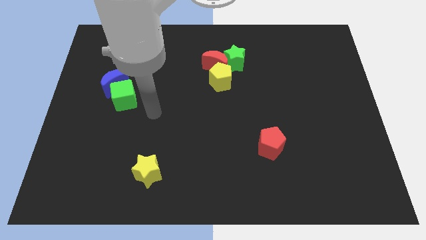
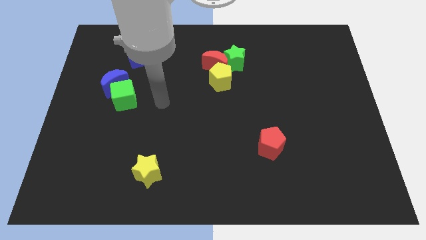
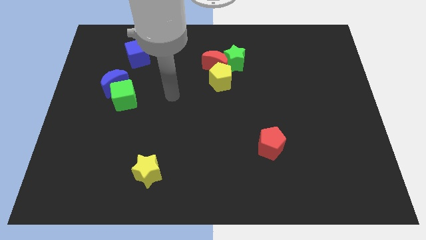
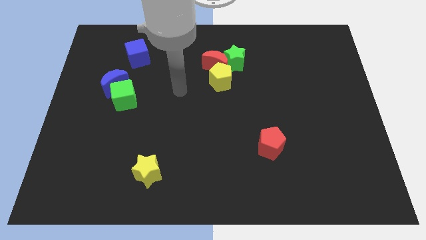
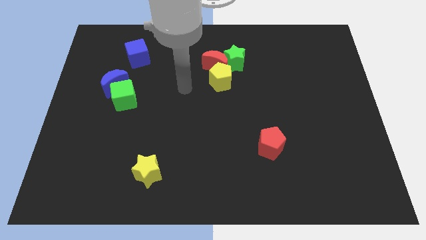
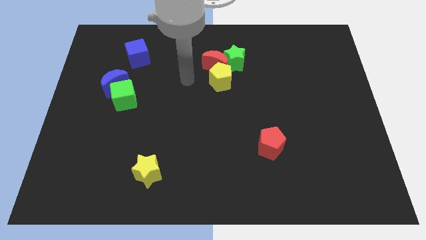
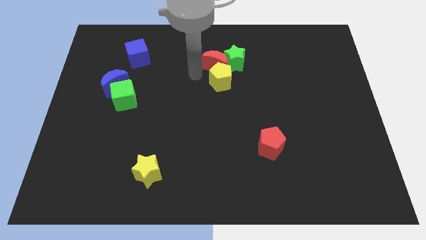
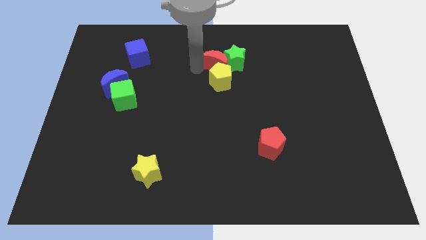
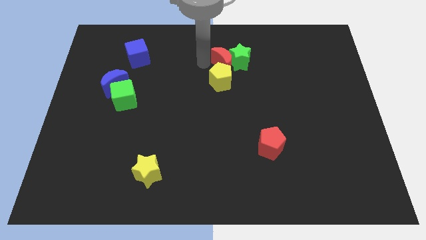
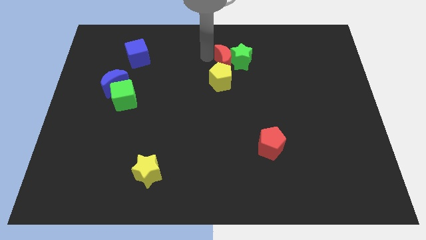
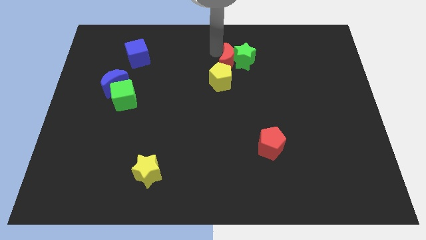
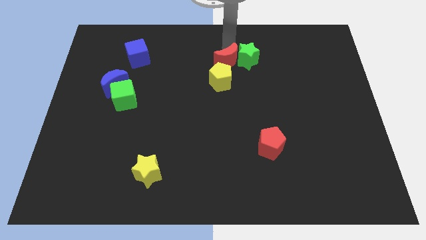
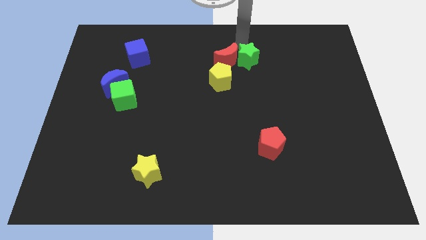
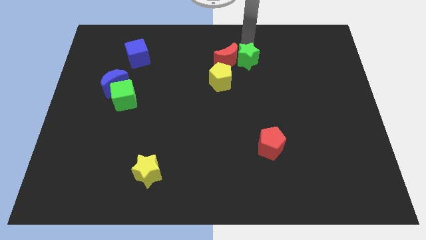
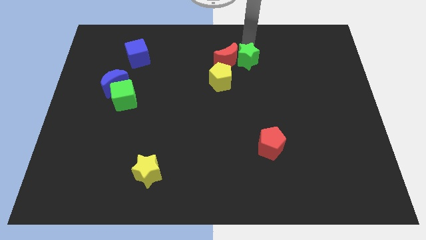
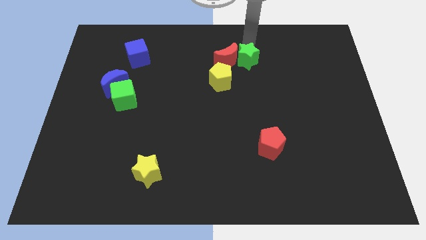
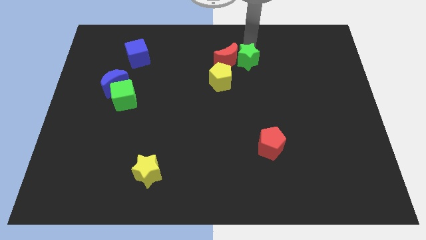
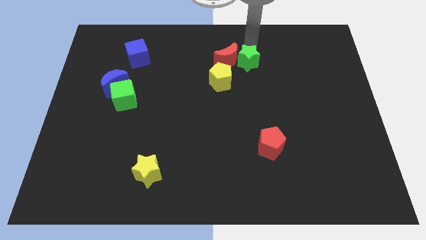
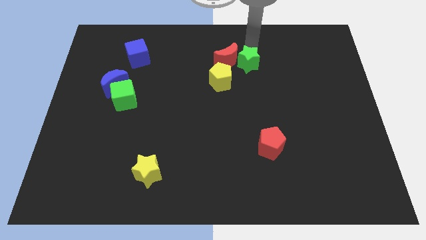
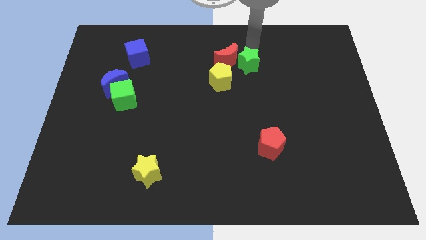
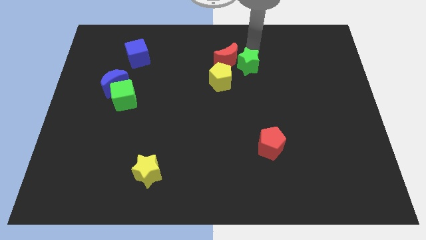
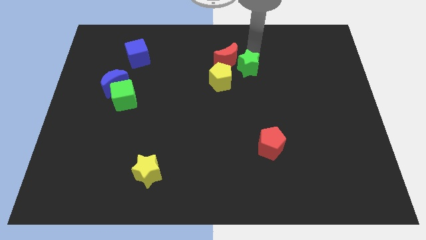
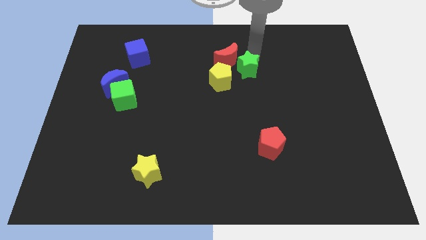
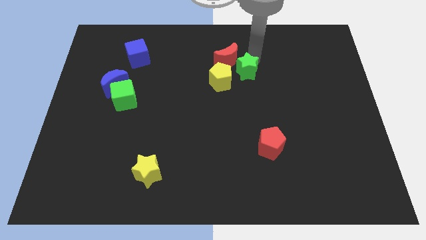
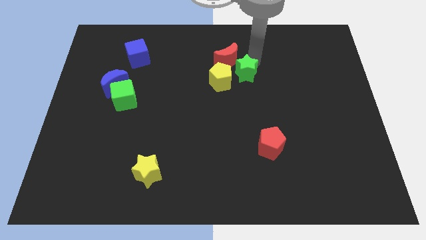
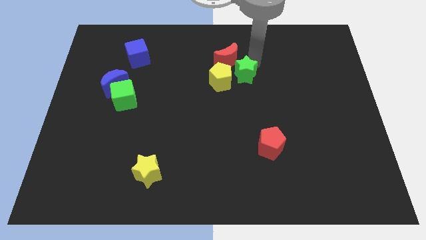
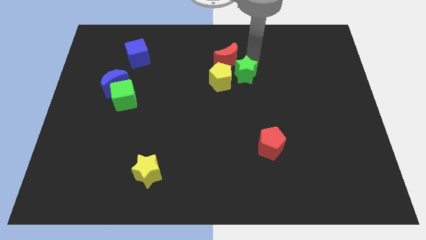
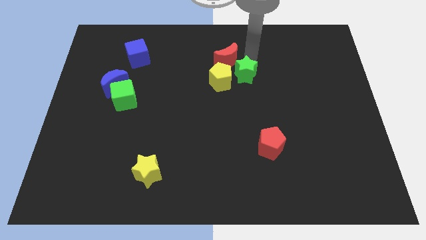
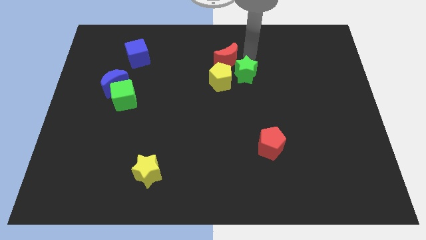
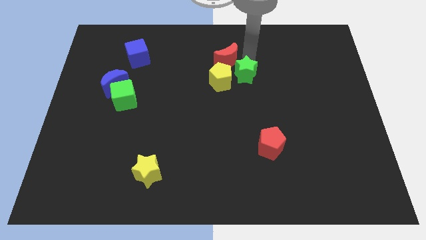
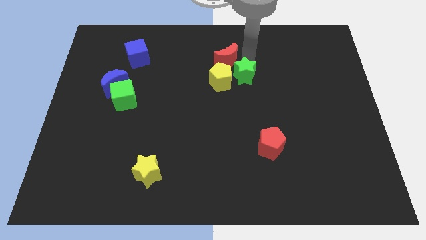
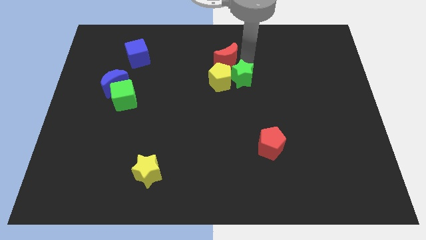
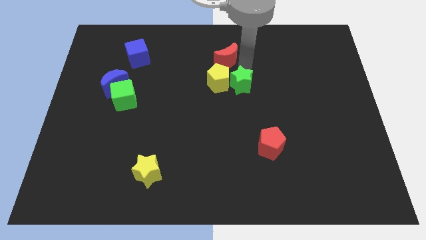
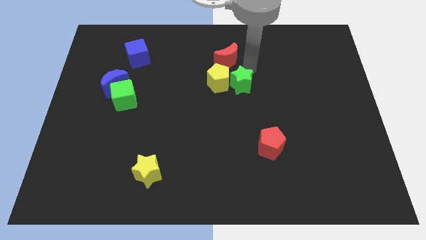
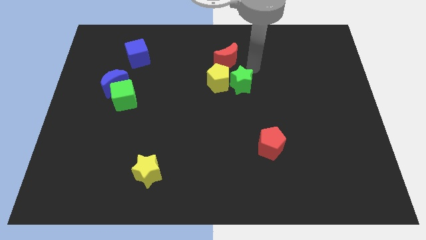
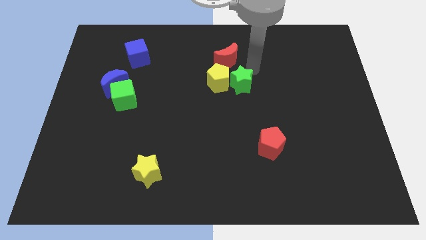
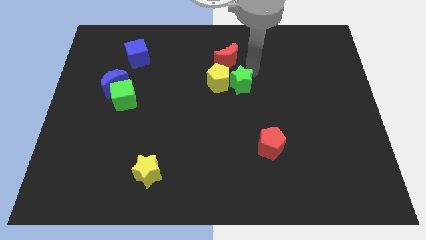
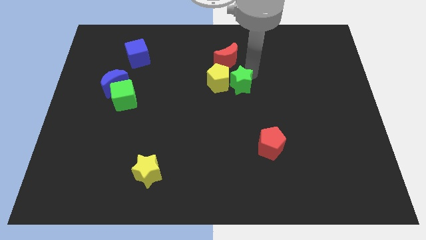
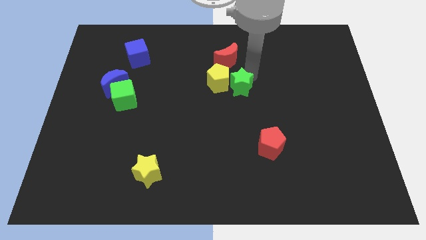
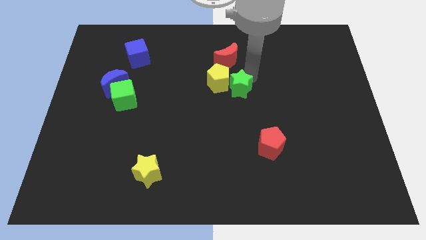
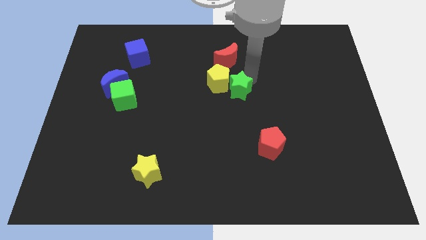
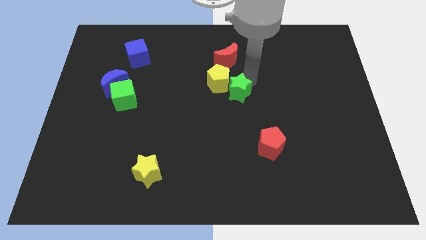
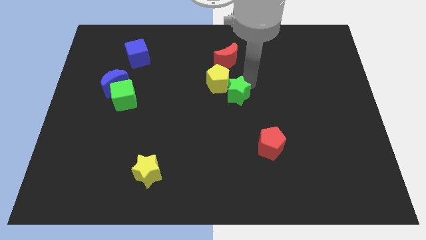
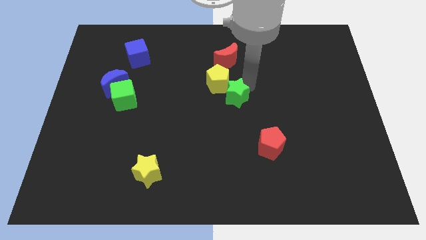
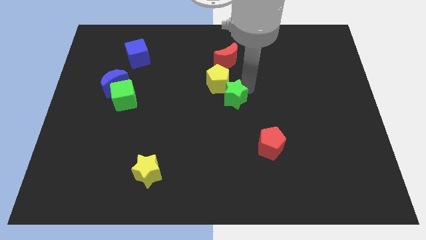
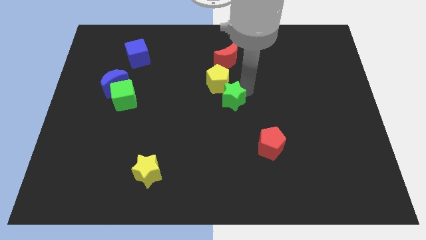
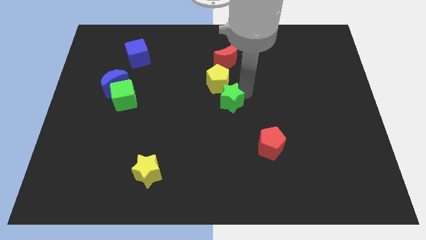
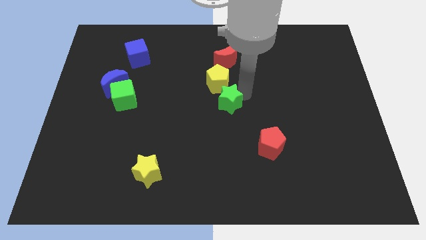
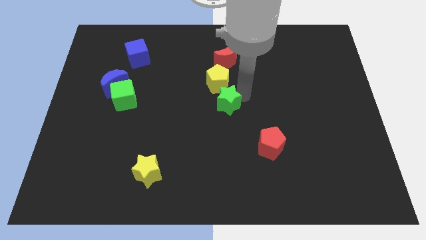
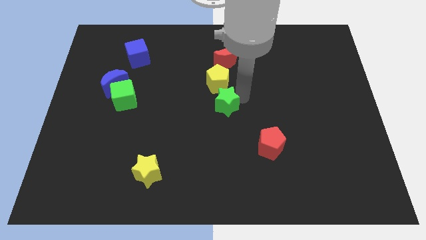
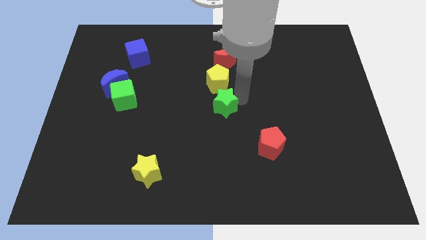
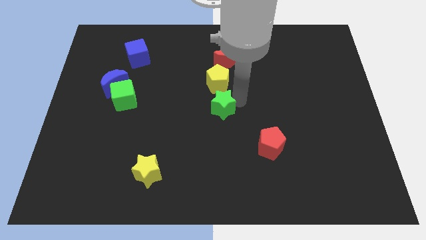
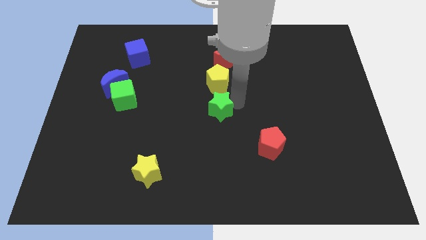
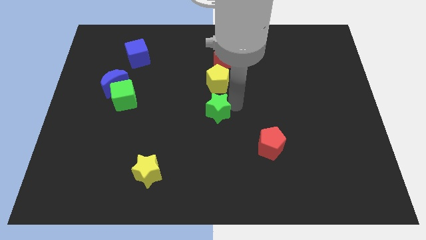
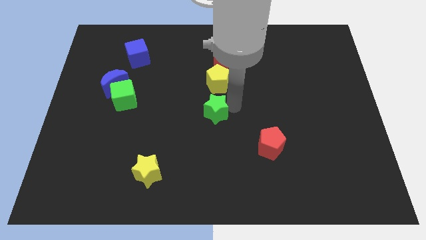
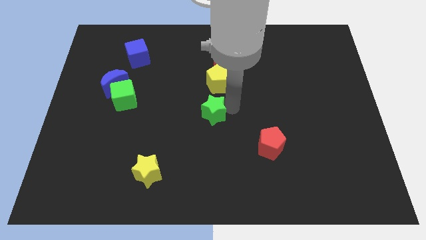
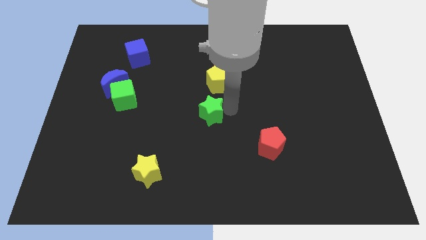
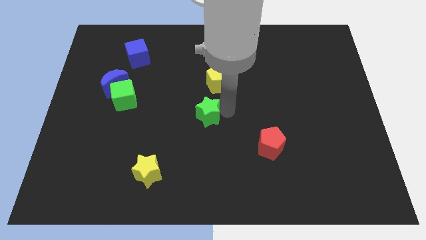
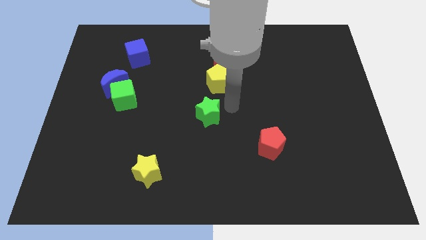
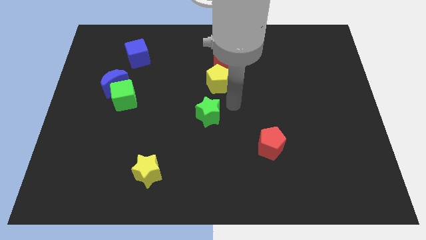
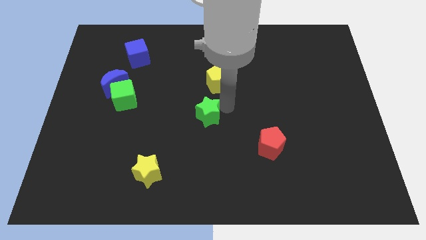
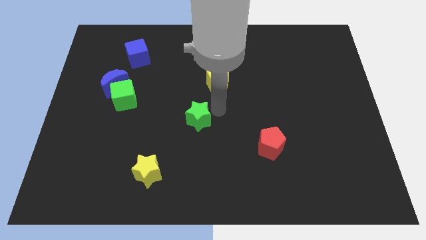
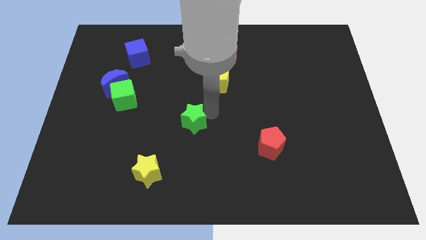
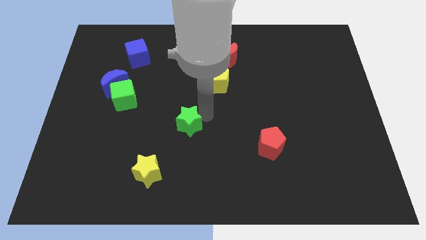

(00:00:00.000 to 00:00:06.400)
push the green star down and left diagonally

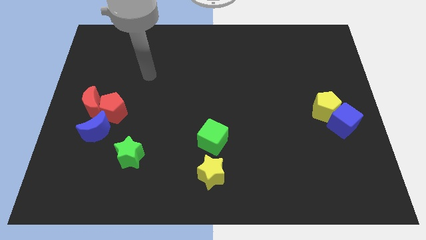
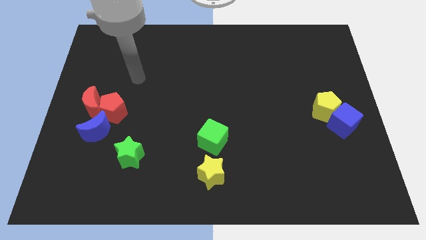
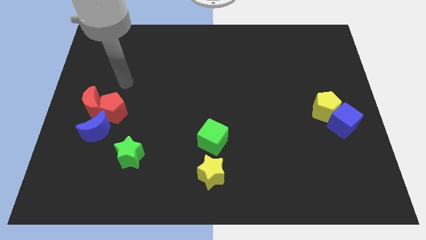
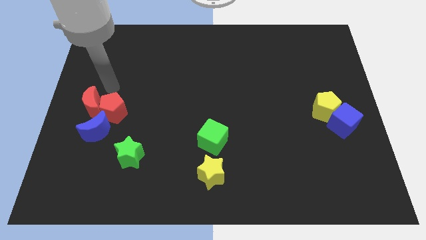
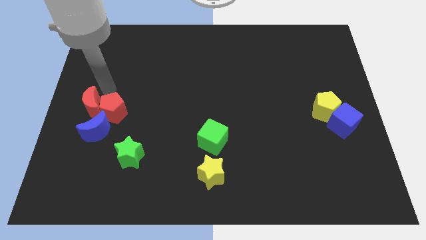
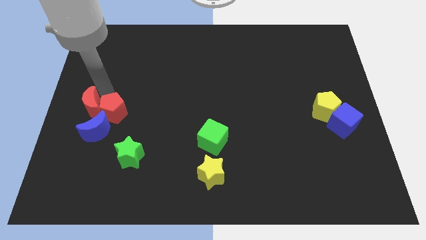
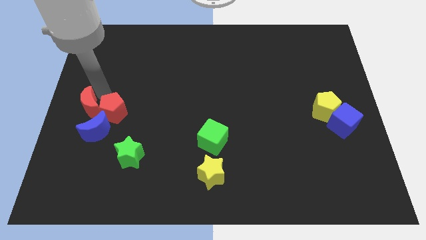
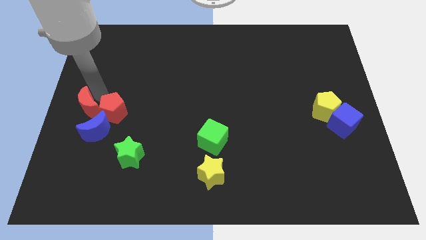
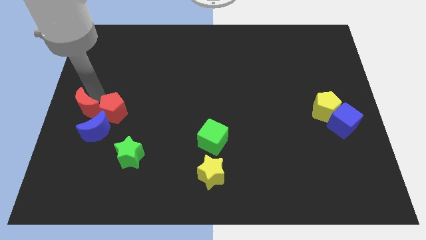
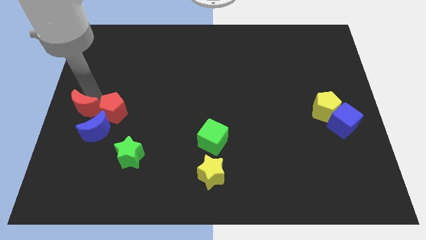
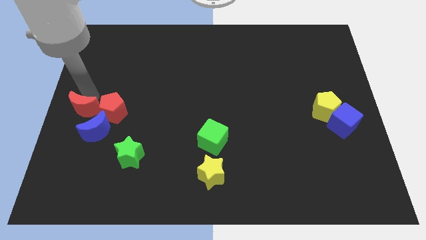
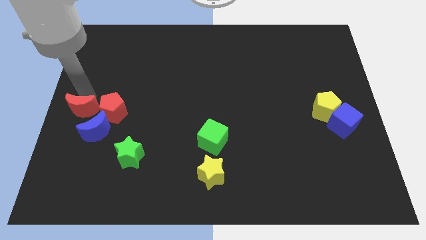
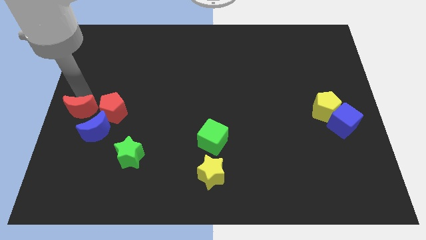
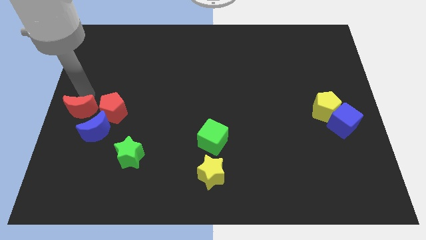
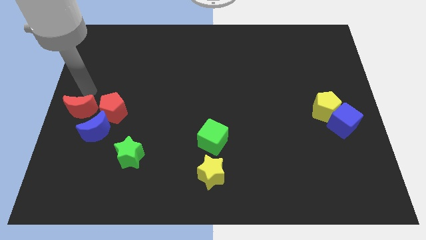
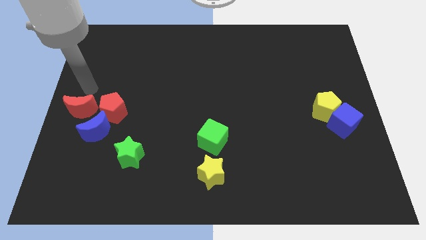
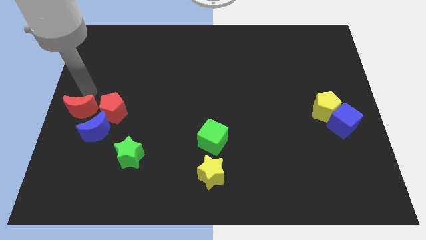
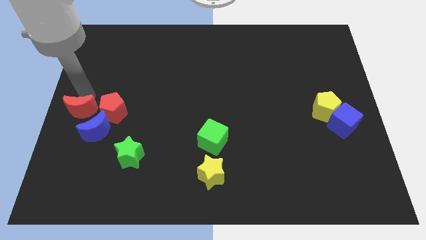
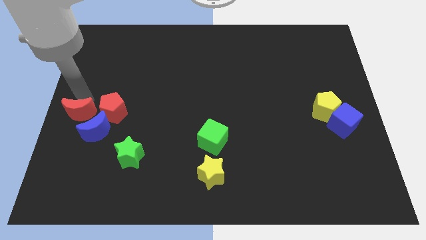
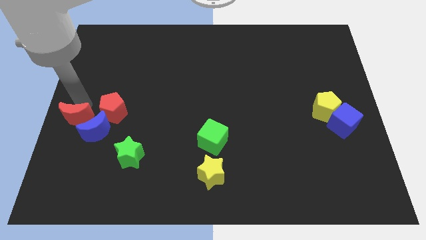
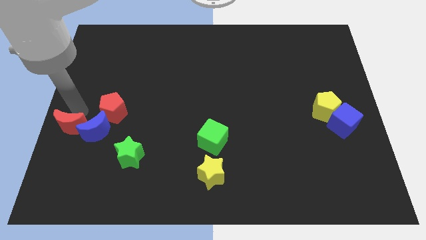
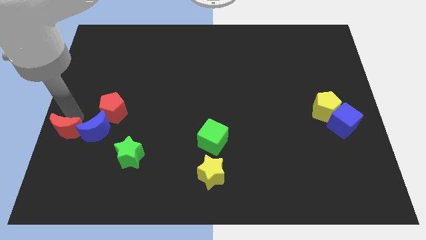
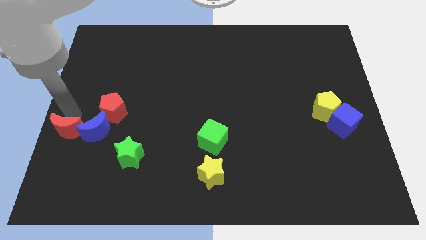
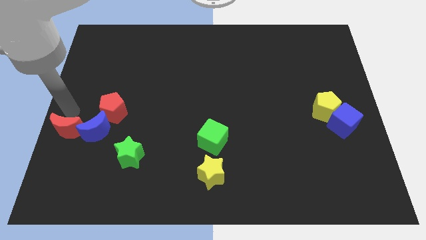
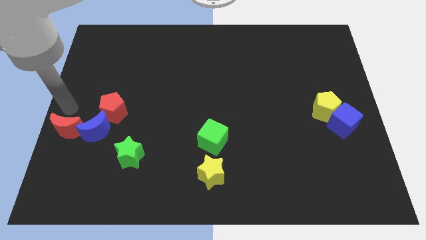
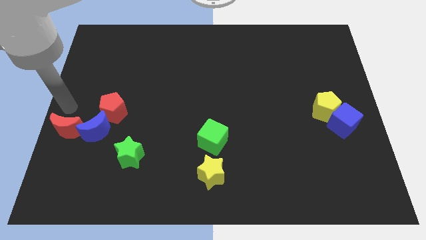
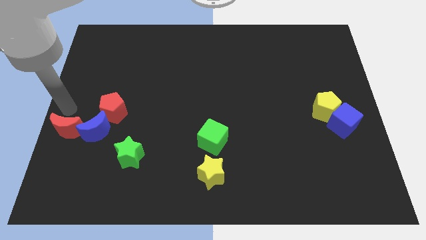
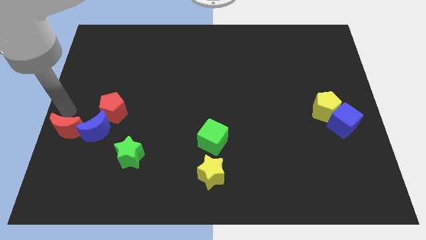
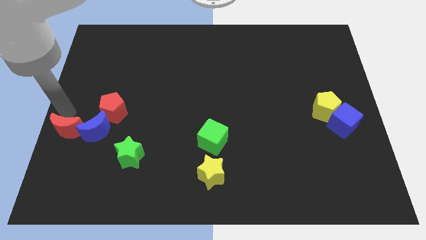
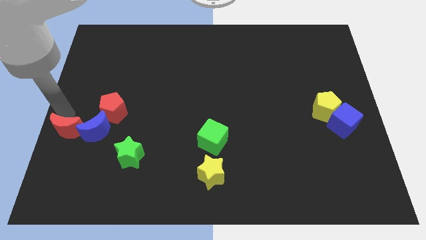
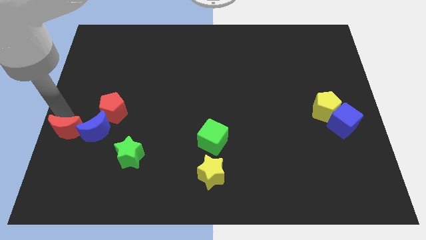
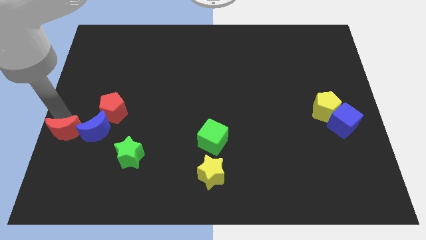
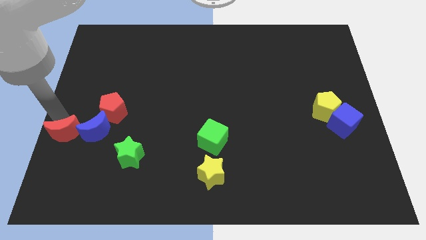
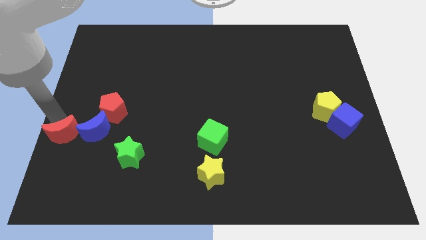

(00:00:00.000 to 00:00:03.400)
push the red moon downwards a little bit
